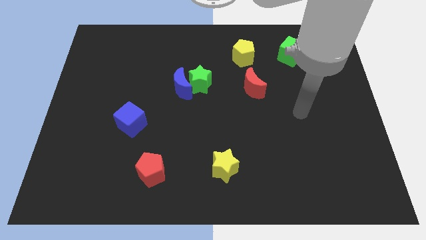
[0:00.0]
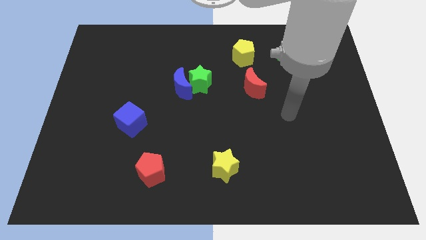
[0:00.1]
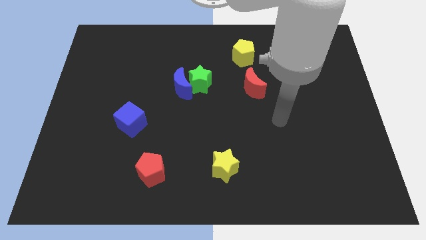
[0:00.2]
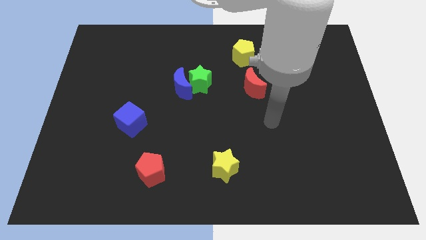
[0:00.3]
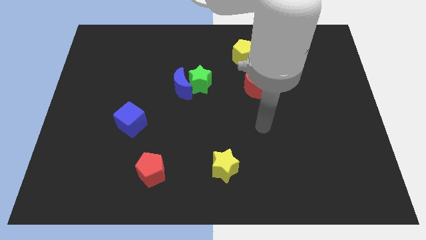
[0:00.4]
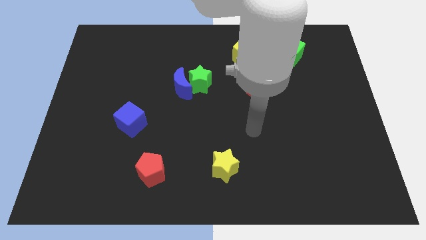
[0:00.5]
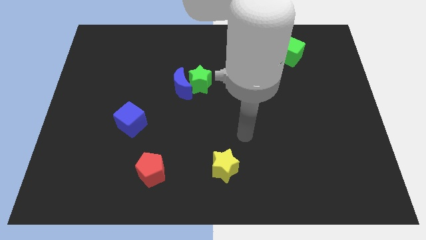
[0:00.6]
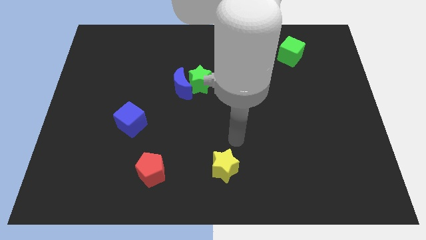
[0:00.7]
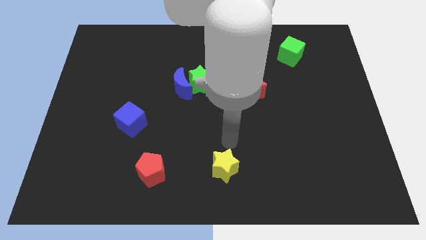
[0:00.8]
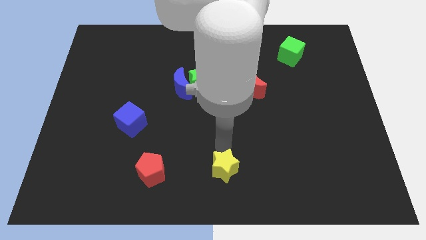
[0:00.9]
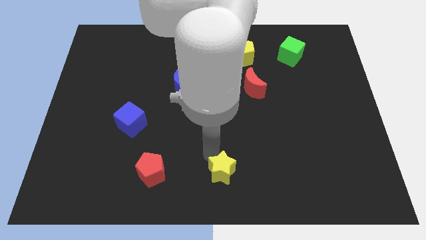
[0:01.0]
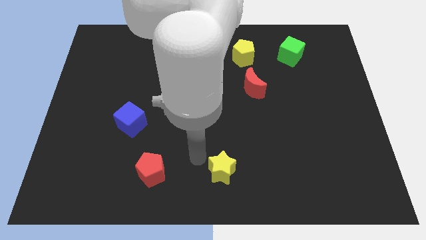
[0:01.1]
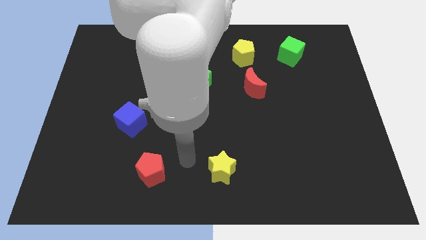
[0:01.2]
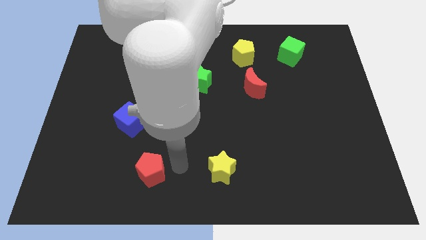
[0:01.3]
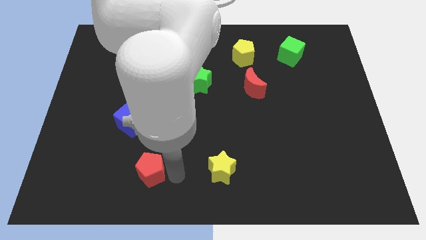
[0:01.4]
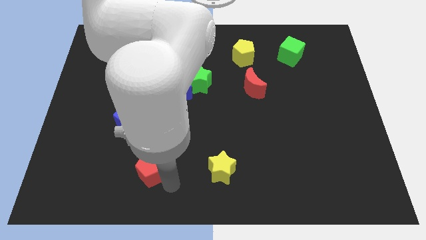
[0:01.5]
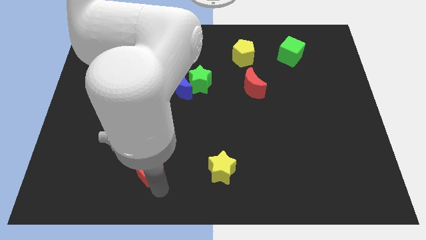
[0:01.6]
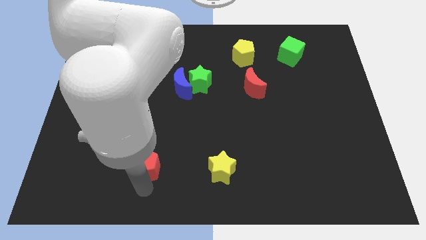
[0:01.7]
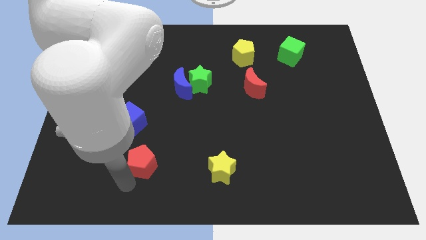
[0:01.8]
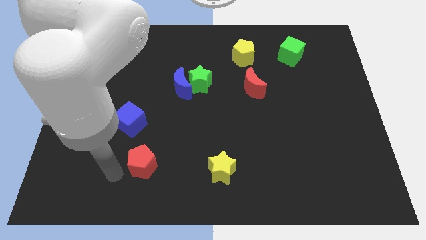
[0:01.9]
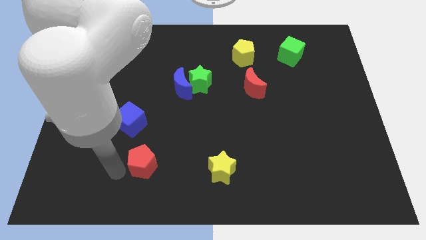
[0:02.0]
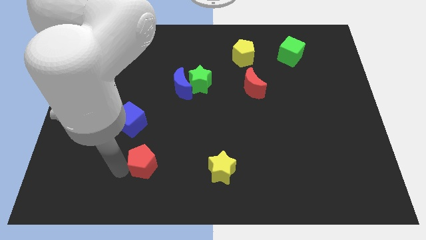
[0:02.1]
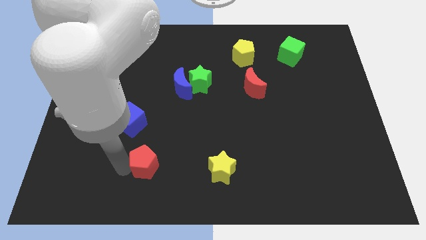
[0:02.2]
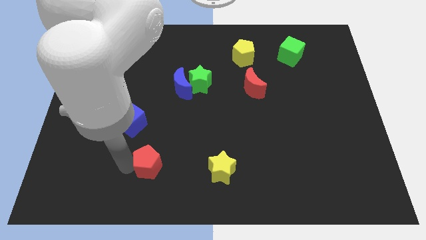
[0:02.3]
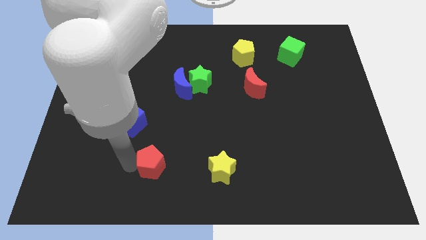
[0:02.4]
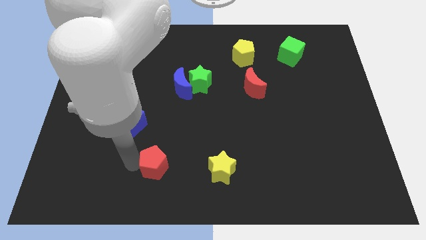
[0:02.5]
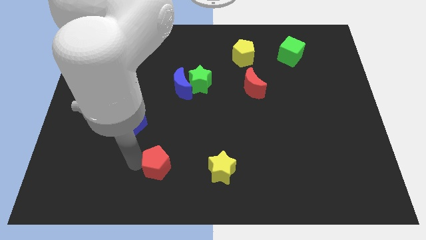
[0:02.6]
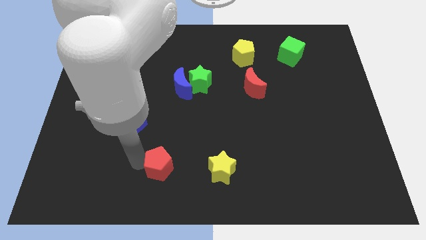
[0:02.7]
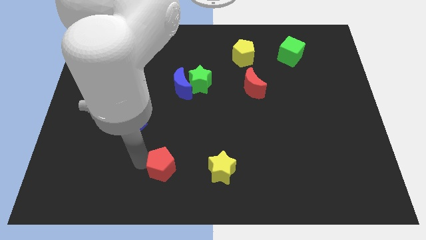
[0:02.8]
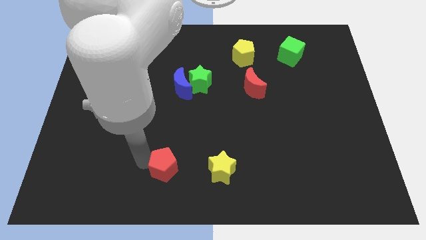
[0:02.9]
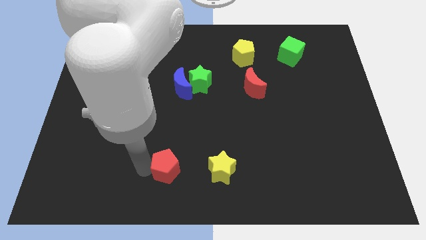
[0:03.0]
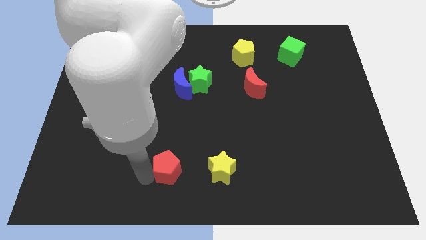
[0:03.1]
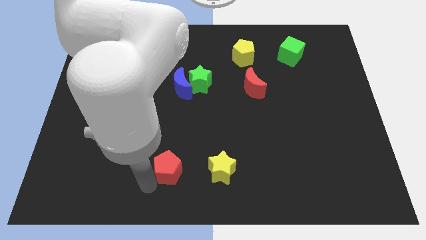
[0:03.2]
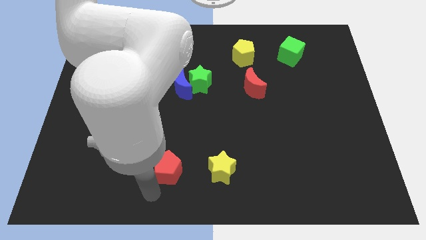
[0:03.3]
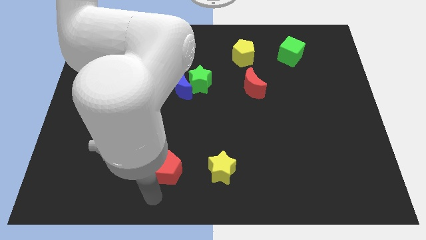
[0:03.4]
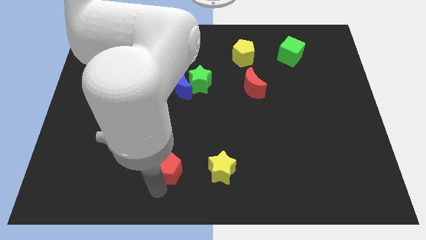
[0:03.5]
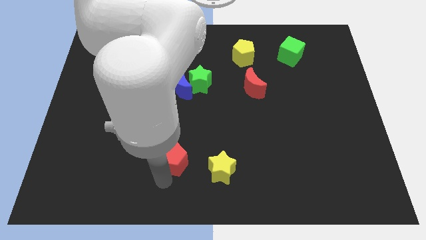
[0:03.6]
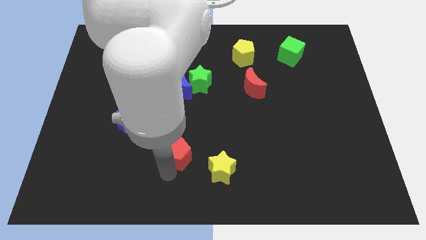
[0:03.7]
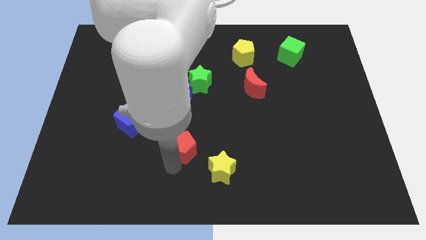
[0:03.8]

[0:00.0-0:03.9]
slightly push the red pentagon diagonally up and right

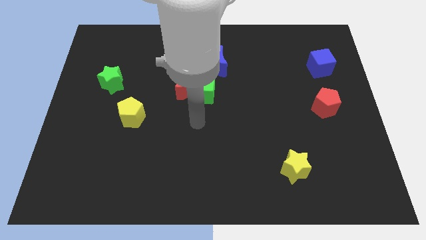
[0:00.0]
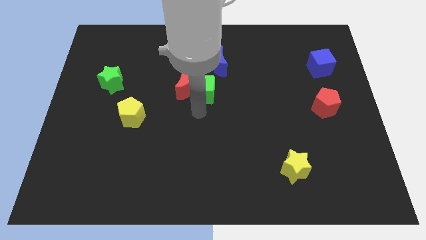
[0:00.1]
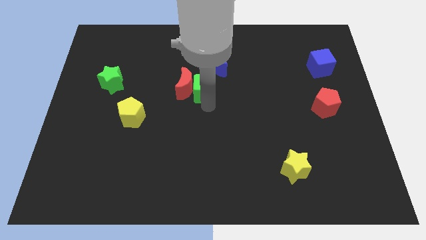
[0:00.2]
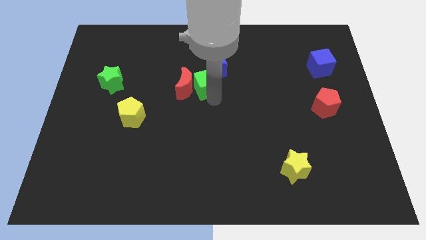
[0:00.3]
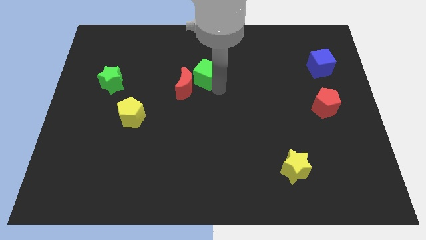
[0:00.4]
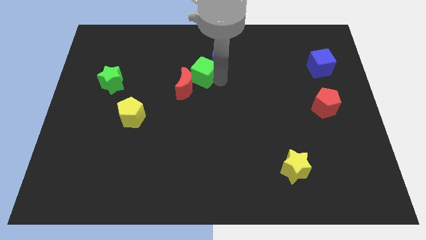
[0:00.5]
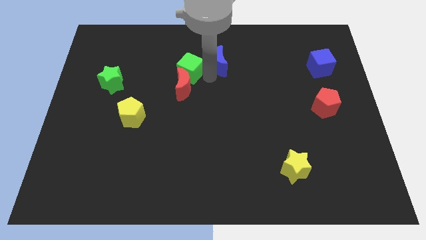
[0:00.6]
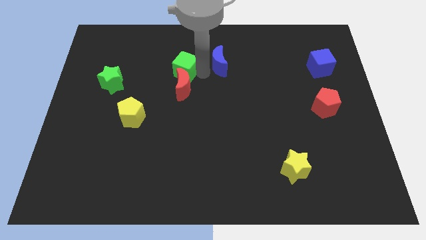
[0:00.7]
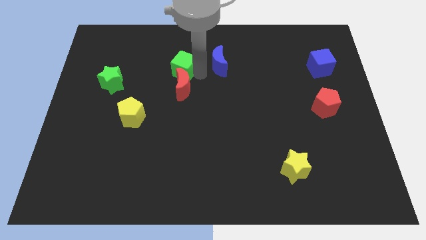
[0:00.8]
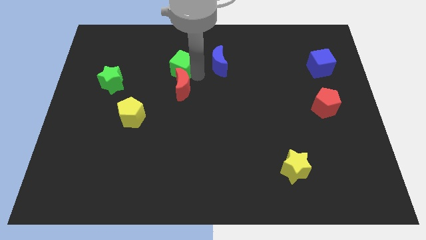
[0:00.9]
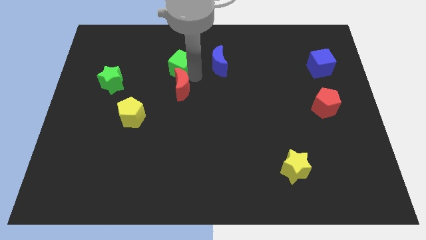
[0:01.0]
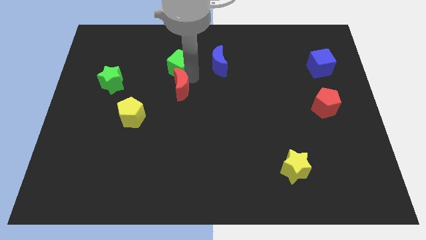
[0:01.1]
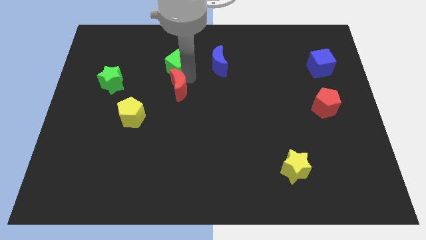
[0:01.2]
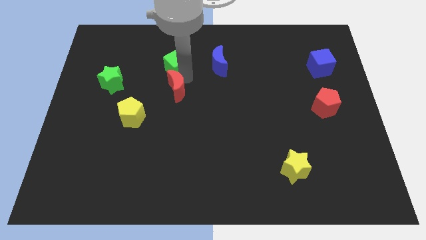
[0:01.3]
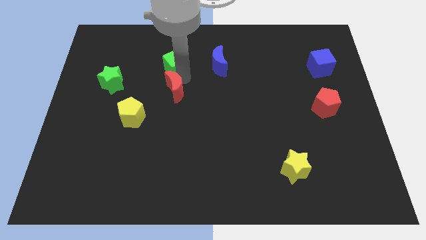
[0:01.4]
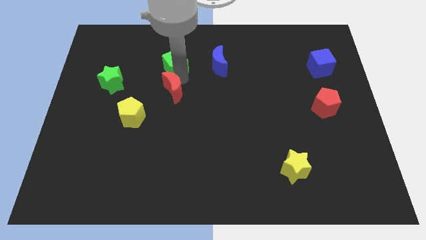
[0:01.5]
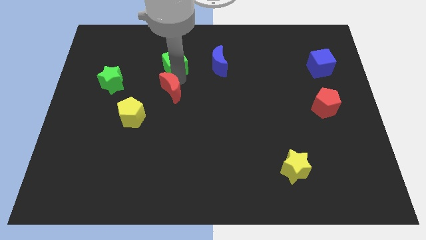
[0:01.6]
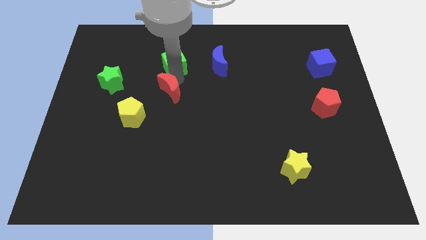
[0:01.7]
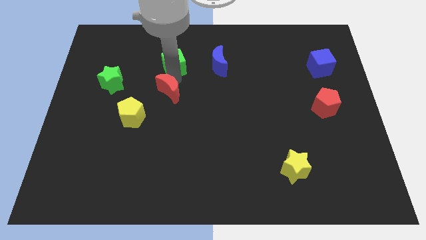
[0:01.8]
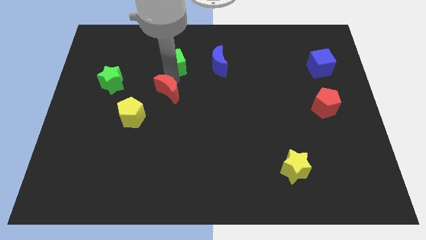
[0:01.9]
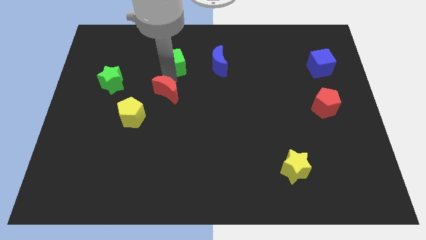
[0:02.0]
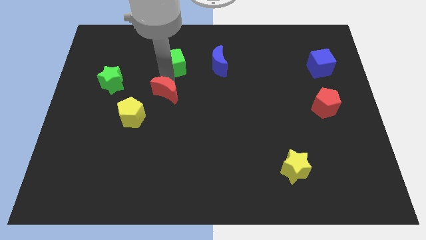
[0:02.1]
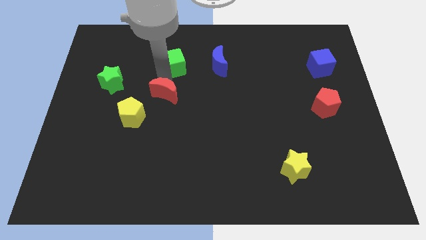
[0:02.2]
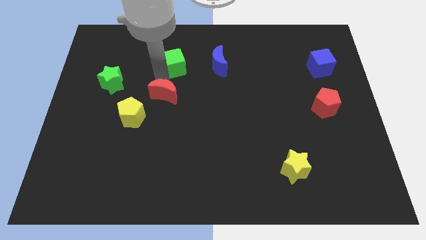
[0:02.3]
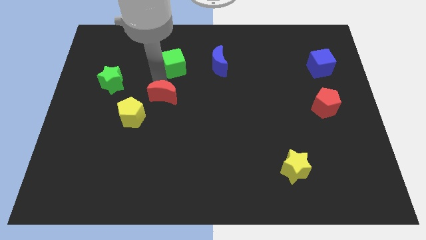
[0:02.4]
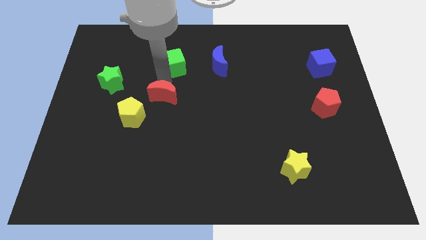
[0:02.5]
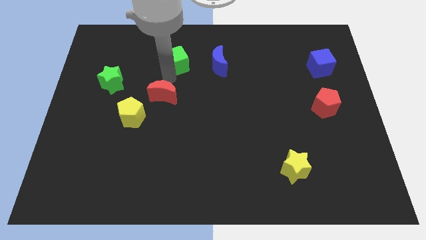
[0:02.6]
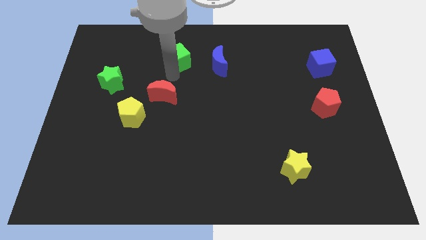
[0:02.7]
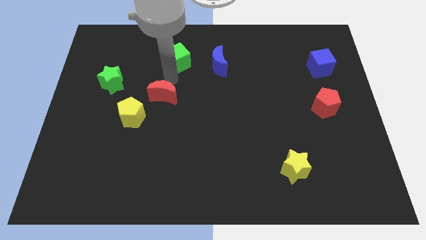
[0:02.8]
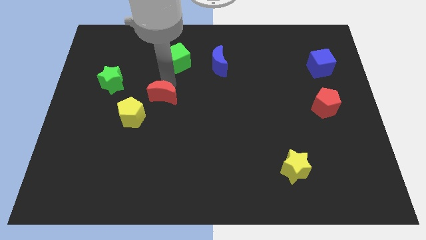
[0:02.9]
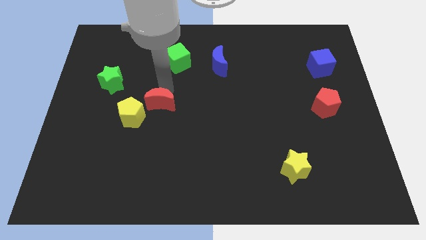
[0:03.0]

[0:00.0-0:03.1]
slide the red moon a bit downwards and to the left diagonally

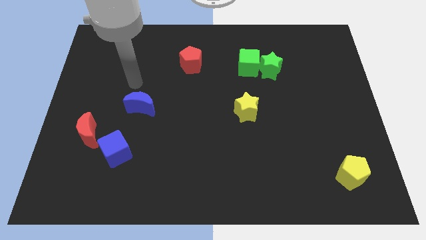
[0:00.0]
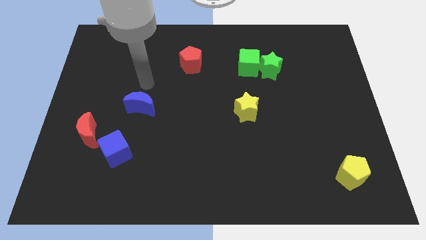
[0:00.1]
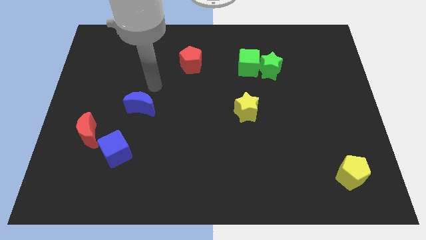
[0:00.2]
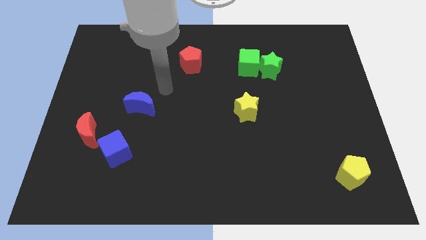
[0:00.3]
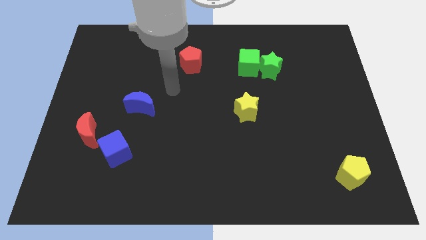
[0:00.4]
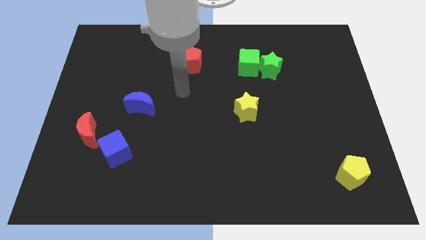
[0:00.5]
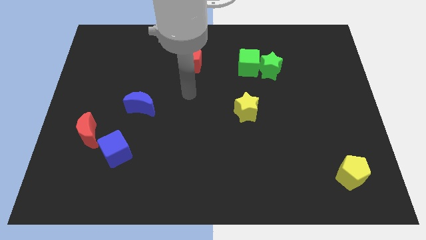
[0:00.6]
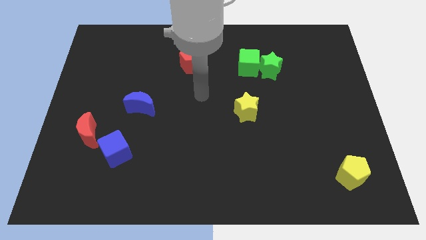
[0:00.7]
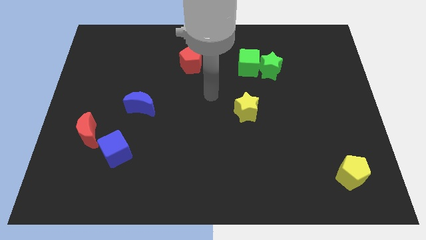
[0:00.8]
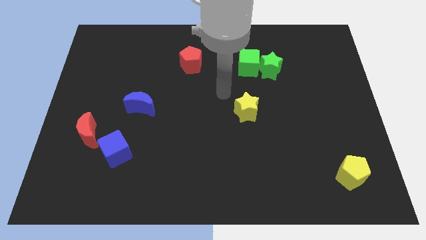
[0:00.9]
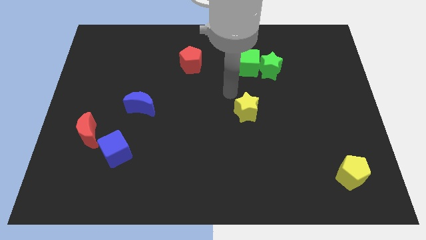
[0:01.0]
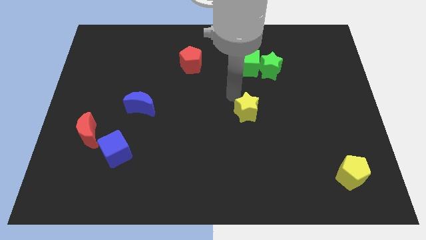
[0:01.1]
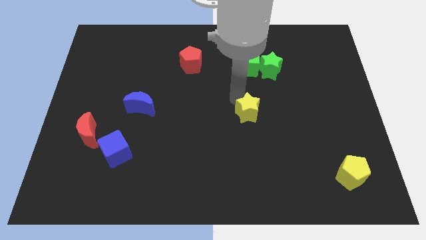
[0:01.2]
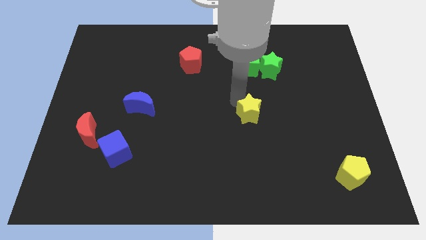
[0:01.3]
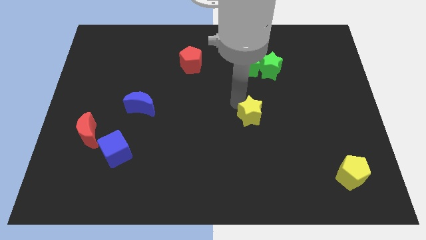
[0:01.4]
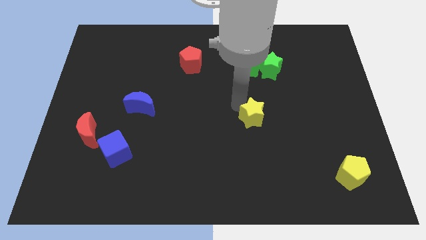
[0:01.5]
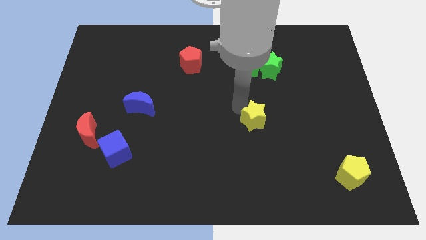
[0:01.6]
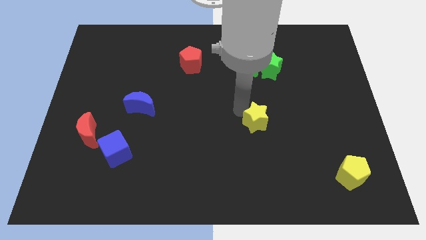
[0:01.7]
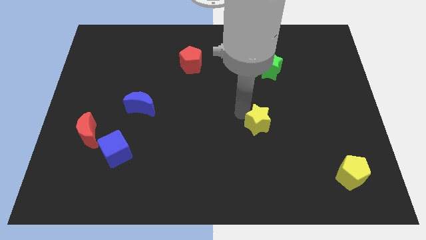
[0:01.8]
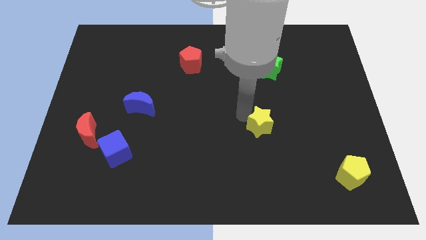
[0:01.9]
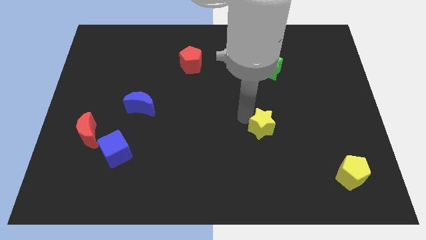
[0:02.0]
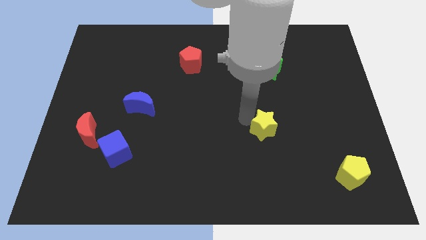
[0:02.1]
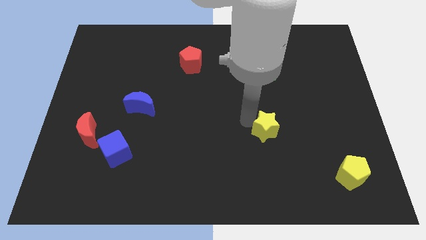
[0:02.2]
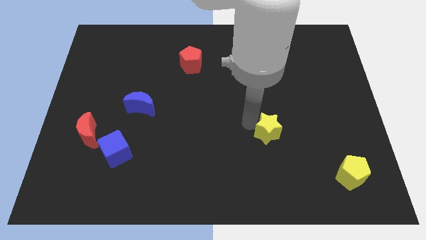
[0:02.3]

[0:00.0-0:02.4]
push the yellow star a little diagonally downwards and to the right
